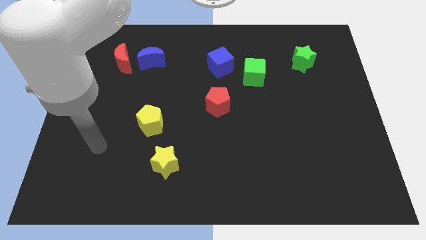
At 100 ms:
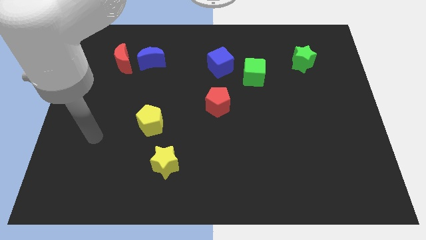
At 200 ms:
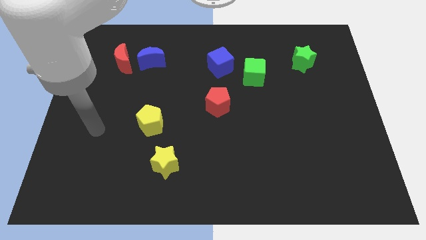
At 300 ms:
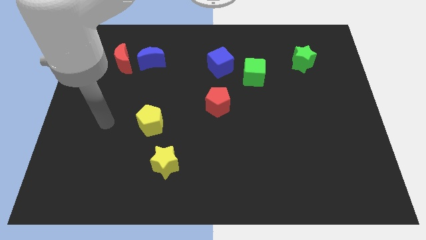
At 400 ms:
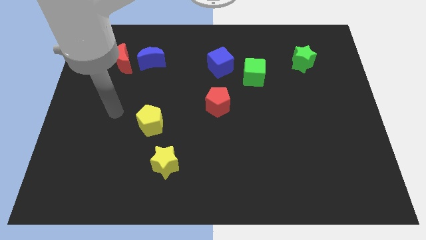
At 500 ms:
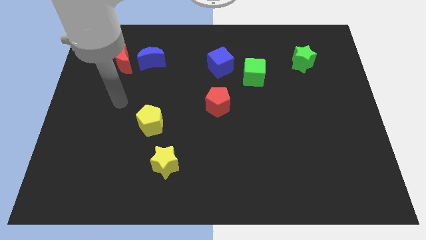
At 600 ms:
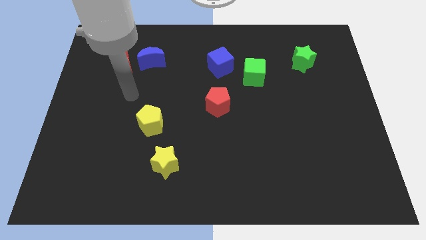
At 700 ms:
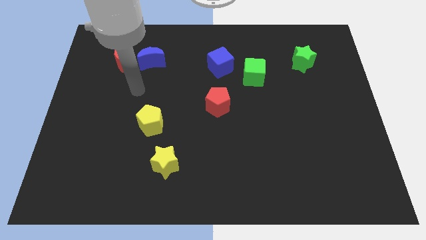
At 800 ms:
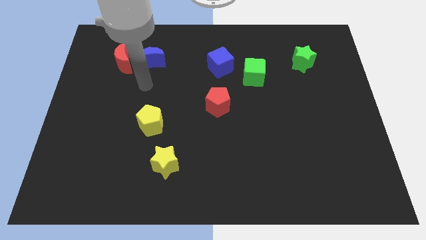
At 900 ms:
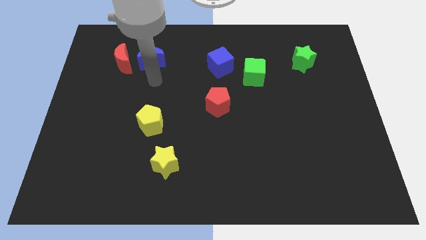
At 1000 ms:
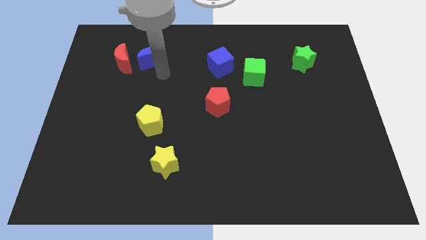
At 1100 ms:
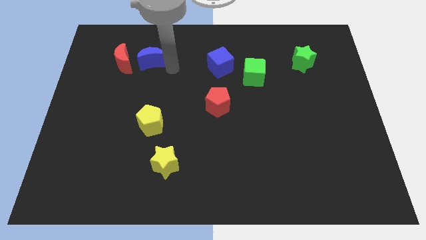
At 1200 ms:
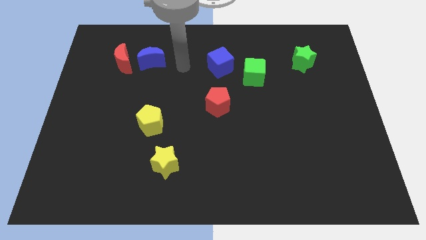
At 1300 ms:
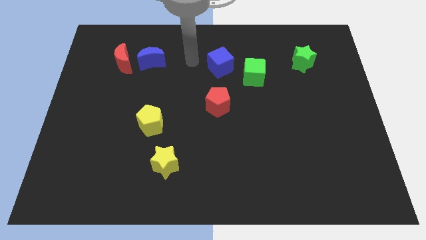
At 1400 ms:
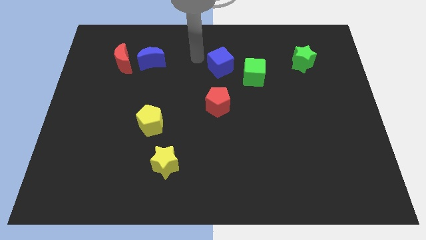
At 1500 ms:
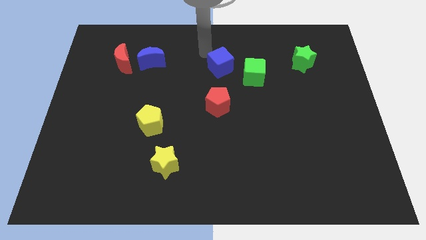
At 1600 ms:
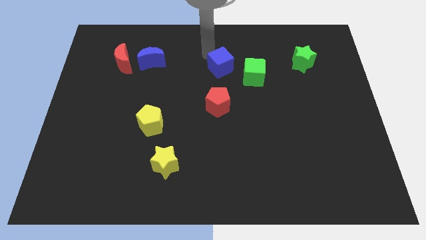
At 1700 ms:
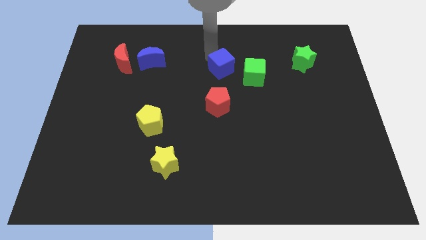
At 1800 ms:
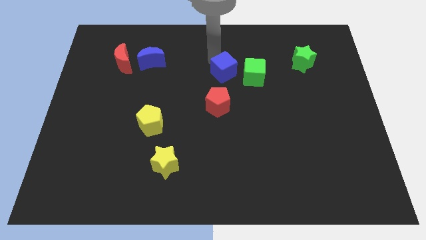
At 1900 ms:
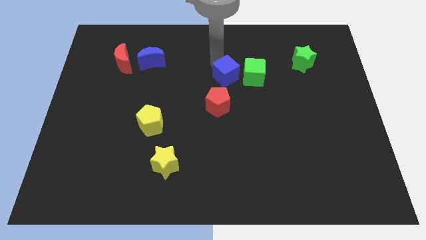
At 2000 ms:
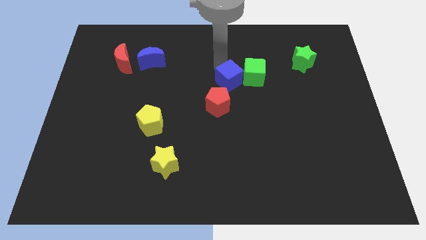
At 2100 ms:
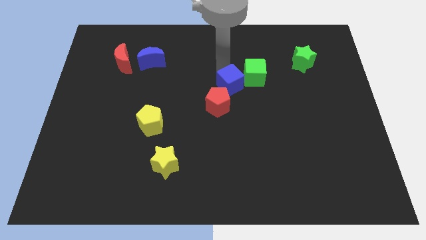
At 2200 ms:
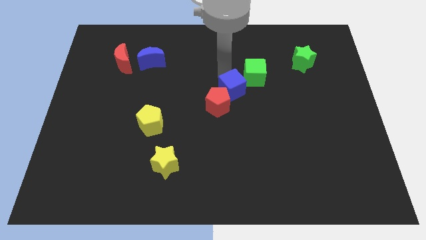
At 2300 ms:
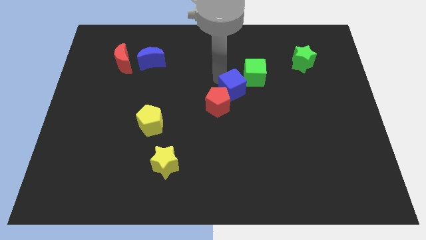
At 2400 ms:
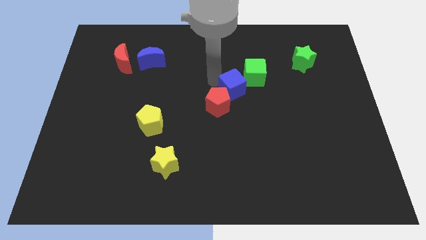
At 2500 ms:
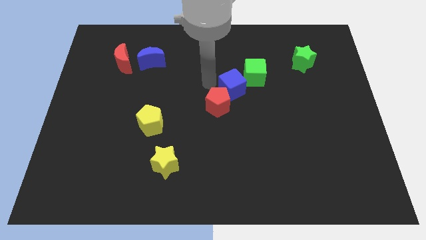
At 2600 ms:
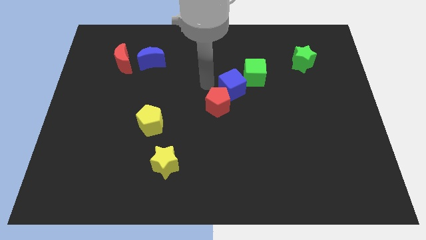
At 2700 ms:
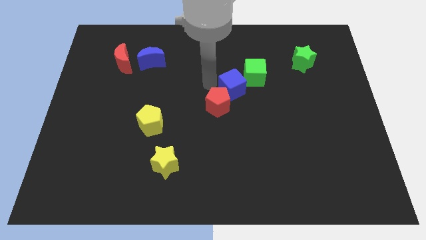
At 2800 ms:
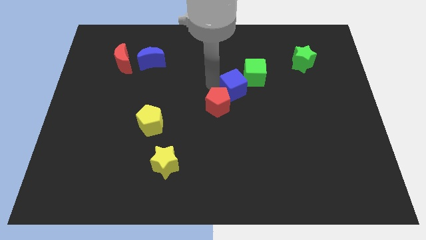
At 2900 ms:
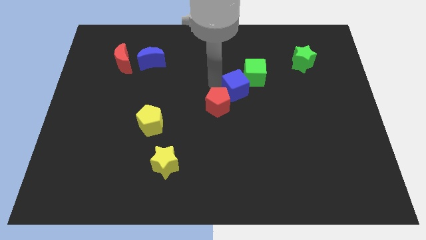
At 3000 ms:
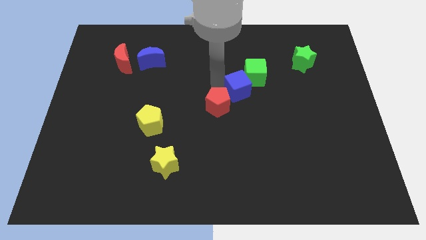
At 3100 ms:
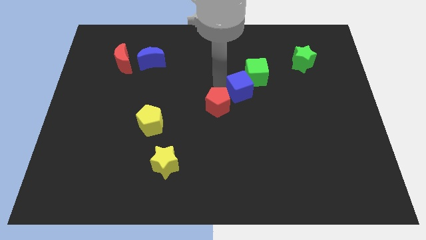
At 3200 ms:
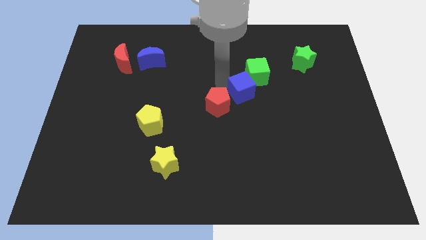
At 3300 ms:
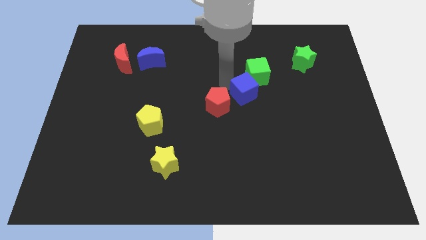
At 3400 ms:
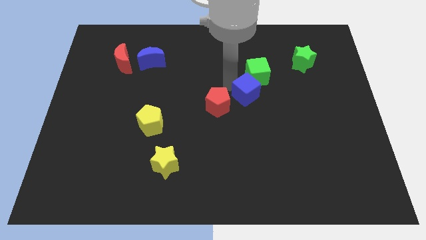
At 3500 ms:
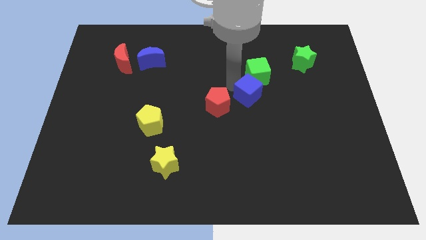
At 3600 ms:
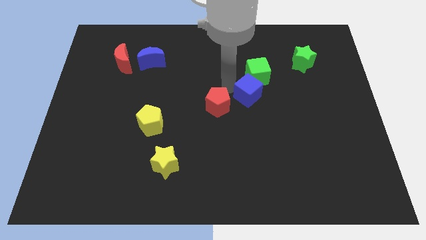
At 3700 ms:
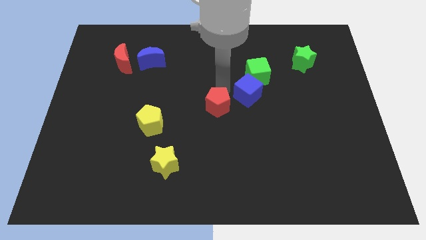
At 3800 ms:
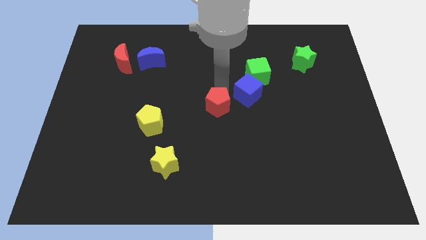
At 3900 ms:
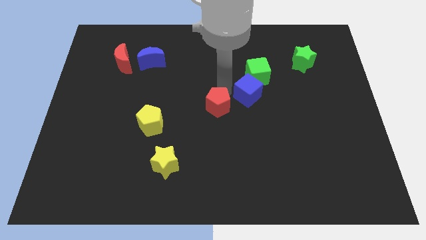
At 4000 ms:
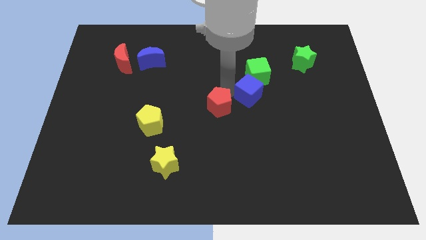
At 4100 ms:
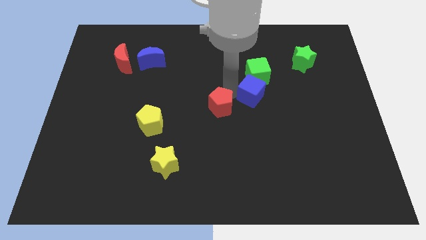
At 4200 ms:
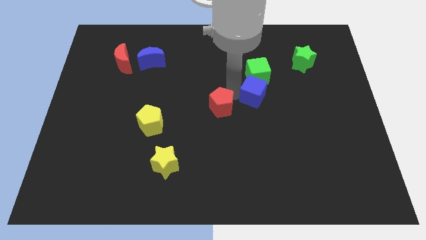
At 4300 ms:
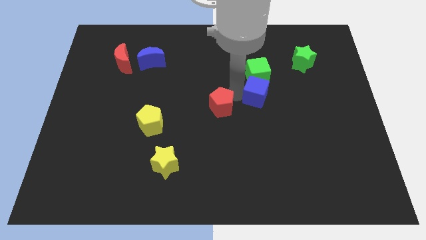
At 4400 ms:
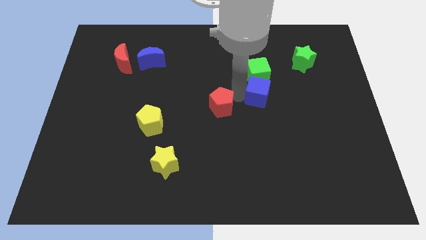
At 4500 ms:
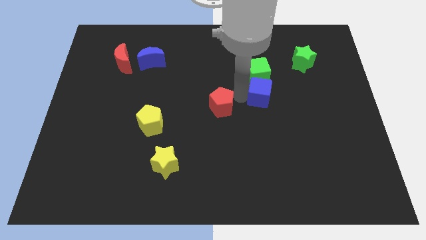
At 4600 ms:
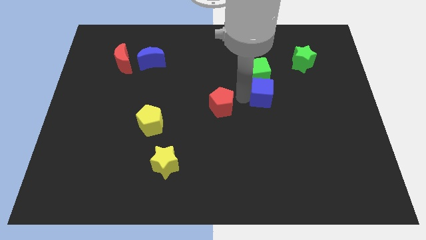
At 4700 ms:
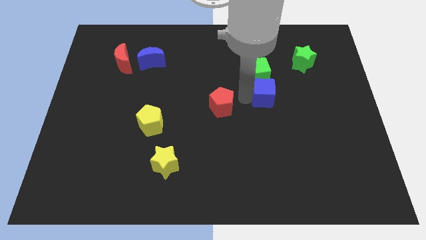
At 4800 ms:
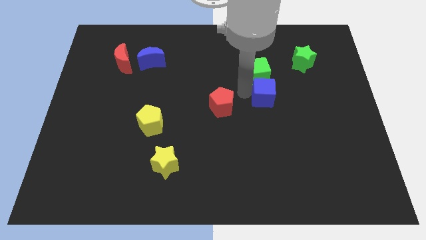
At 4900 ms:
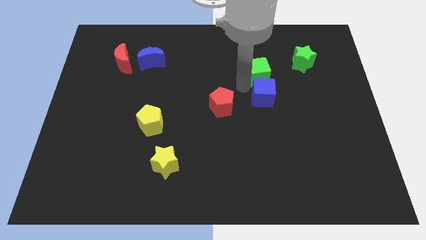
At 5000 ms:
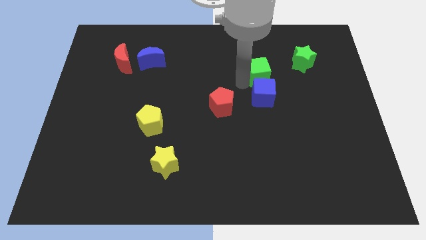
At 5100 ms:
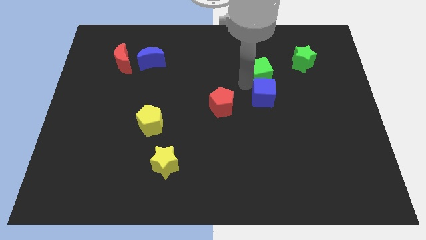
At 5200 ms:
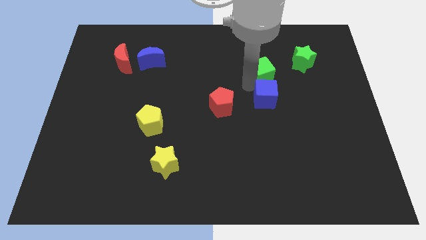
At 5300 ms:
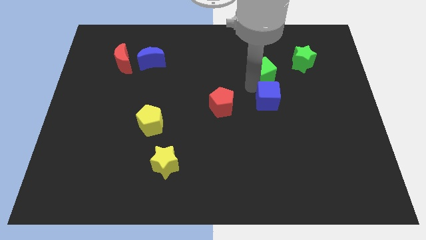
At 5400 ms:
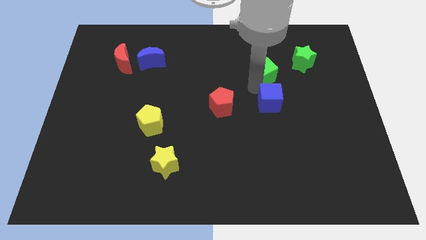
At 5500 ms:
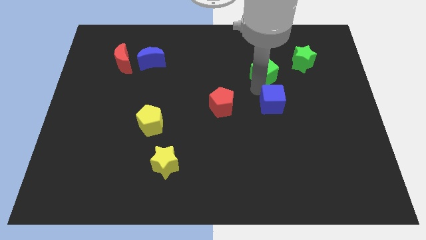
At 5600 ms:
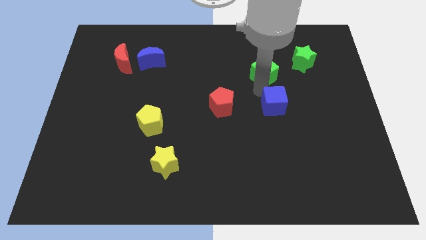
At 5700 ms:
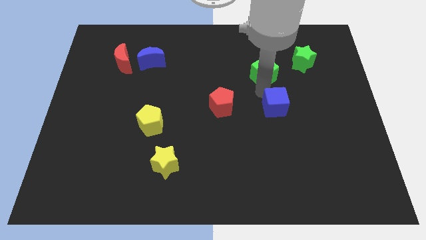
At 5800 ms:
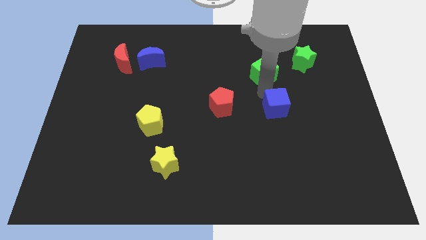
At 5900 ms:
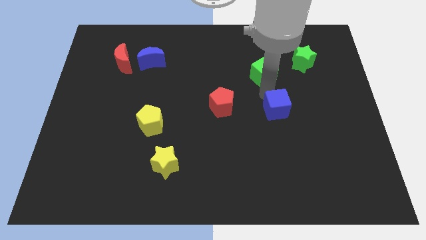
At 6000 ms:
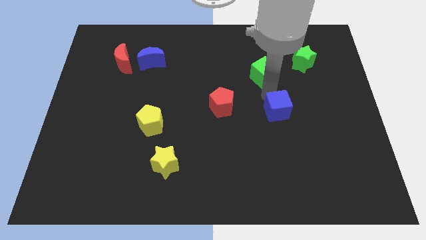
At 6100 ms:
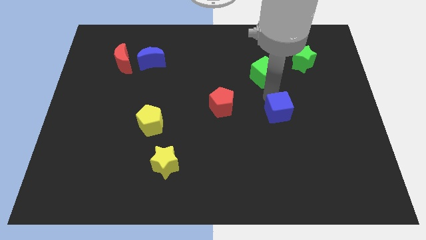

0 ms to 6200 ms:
slide the blue cube diagonally downwards and right

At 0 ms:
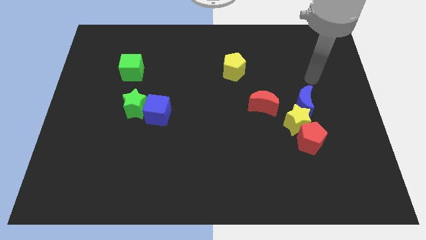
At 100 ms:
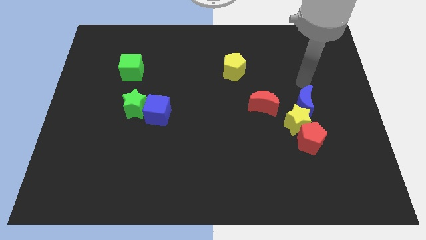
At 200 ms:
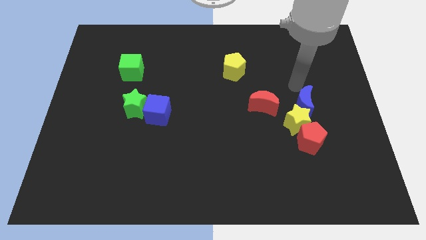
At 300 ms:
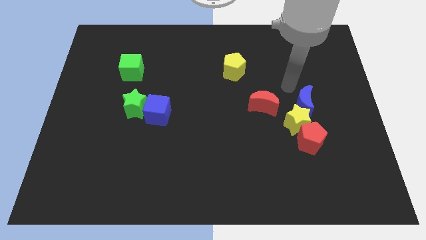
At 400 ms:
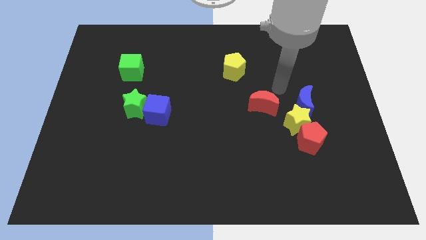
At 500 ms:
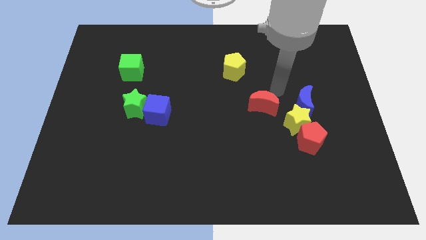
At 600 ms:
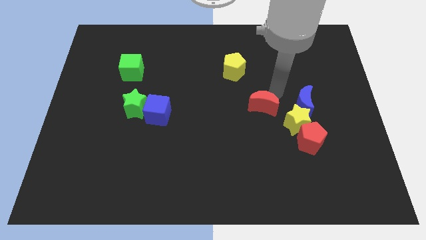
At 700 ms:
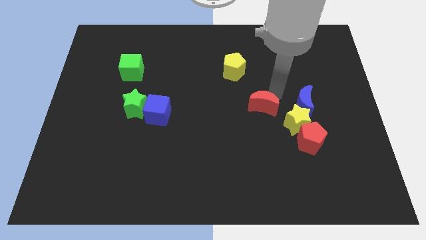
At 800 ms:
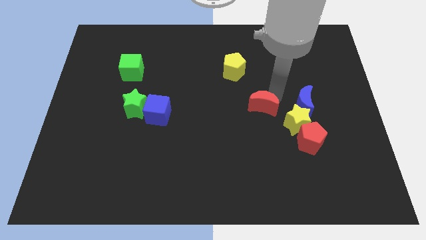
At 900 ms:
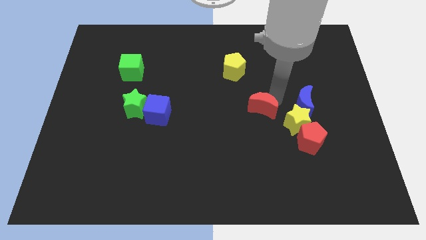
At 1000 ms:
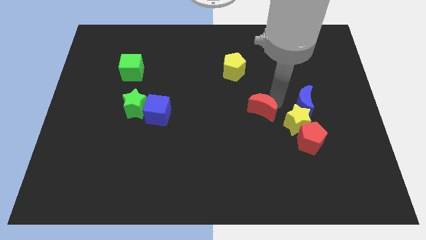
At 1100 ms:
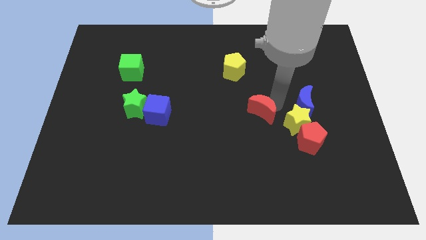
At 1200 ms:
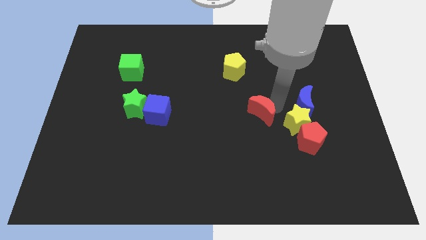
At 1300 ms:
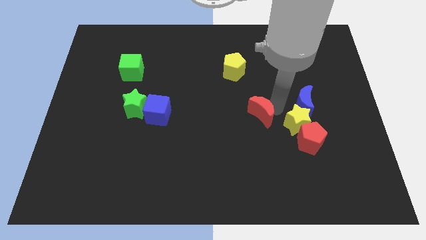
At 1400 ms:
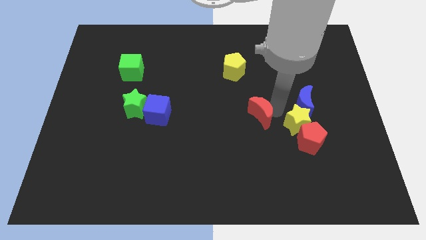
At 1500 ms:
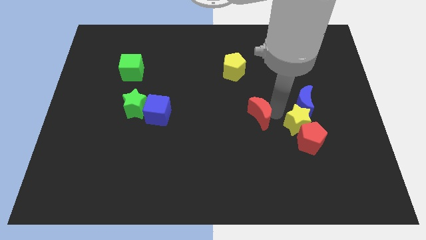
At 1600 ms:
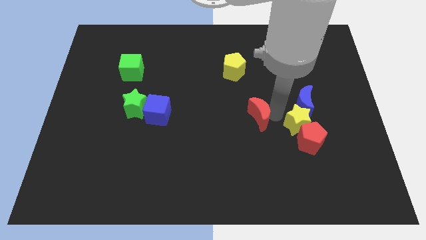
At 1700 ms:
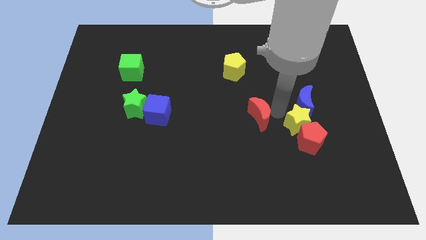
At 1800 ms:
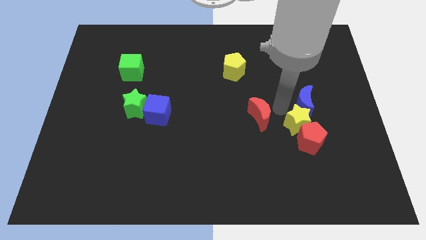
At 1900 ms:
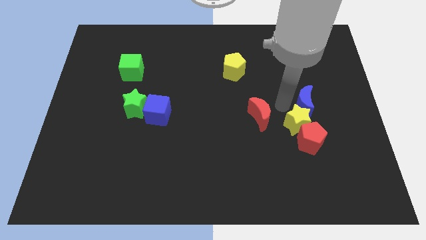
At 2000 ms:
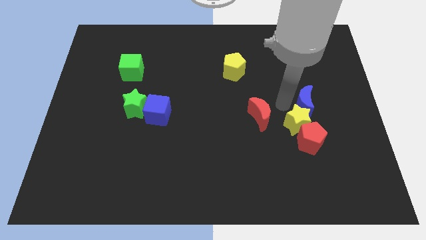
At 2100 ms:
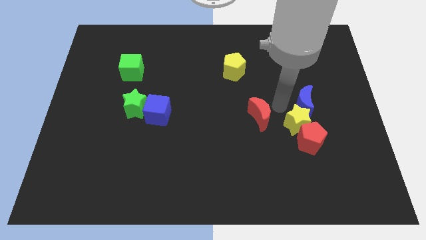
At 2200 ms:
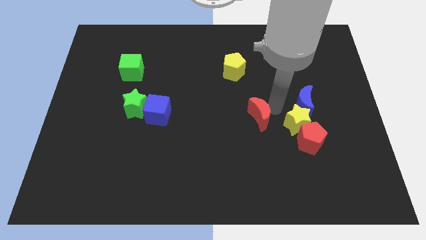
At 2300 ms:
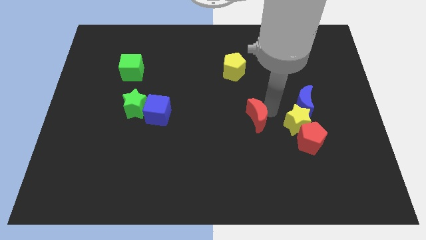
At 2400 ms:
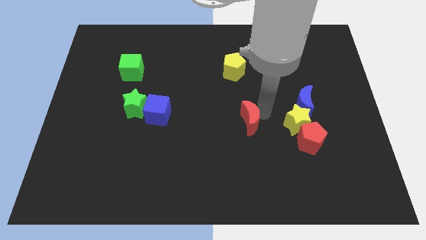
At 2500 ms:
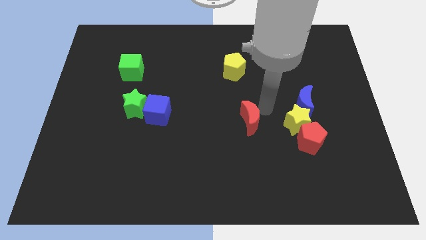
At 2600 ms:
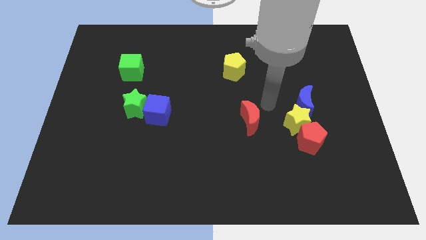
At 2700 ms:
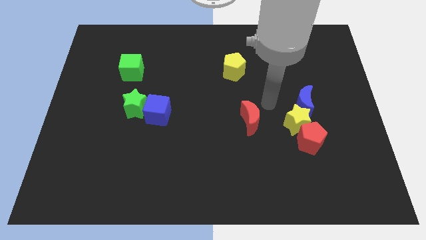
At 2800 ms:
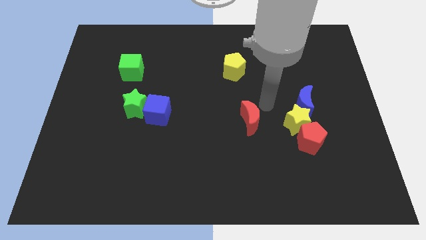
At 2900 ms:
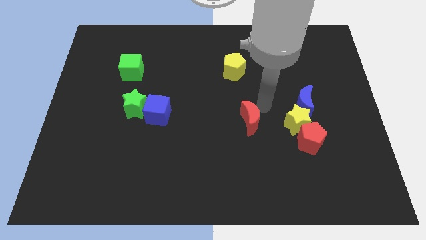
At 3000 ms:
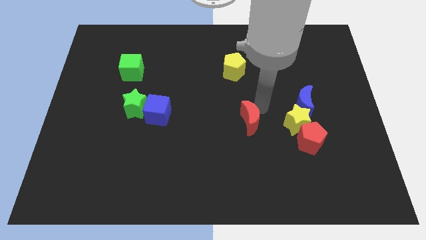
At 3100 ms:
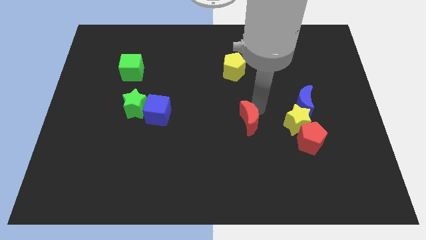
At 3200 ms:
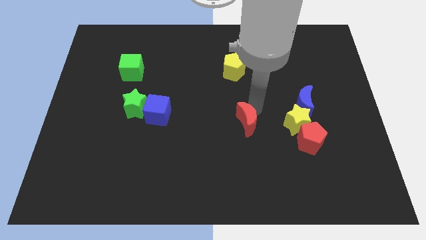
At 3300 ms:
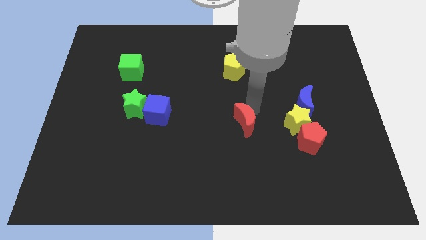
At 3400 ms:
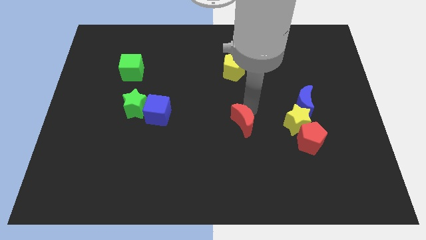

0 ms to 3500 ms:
push the red moon down and to the left diagonally slightly
